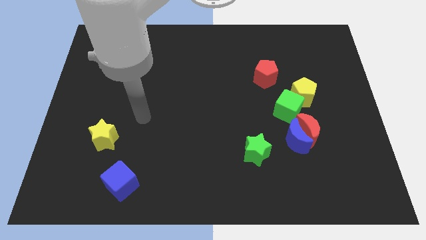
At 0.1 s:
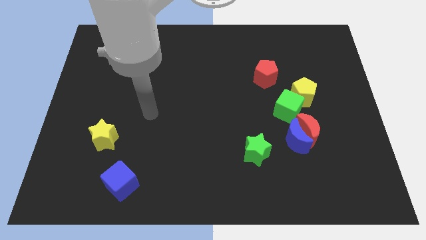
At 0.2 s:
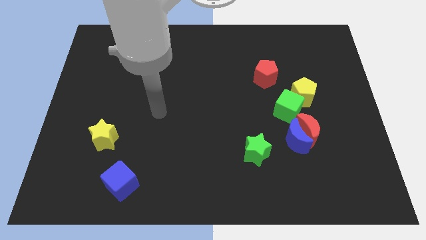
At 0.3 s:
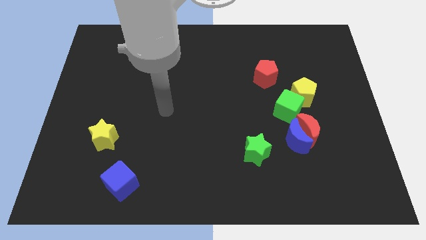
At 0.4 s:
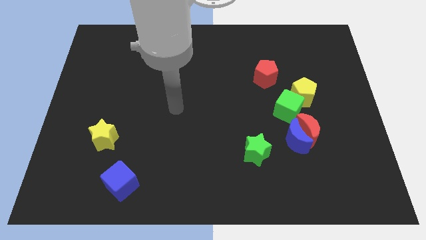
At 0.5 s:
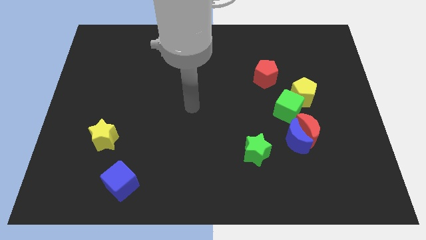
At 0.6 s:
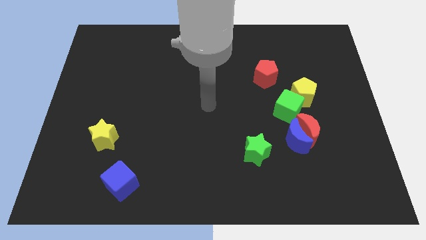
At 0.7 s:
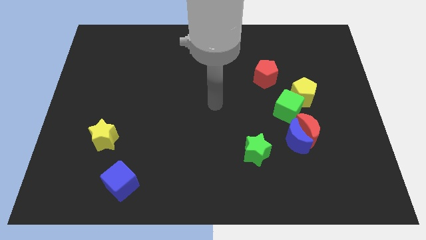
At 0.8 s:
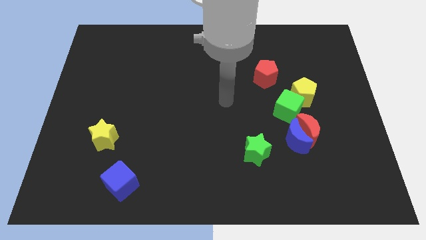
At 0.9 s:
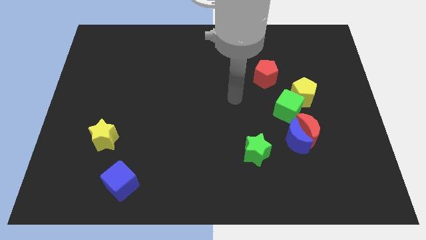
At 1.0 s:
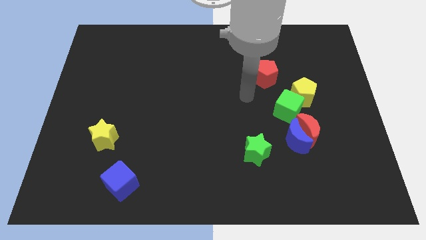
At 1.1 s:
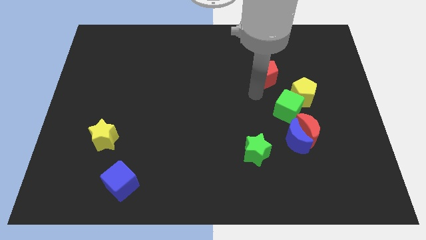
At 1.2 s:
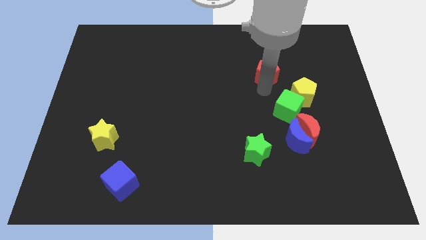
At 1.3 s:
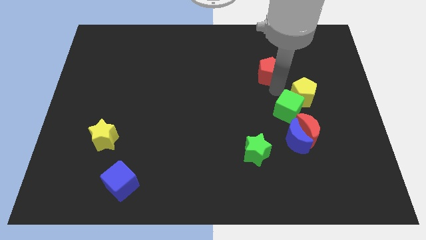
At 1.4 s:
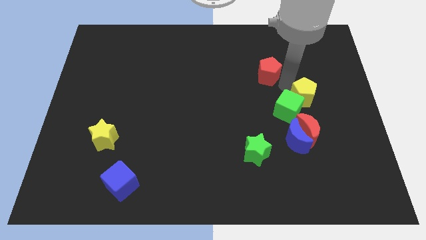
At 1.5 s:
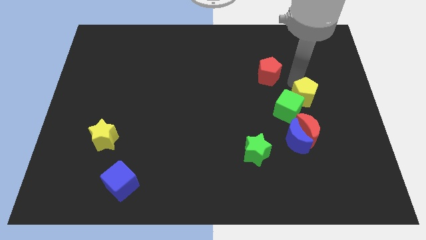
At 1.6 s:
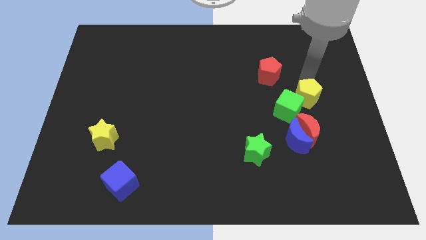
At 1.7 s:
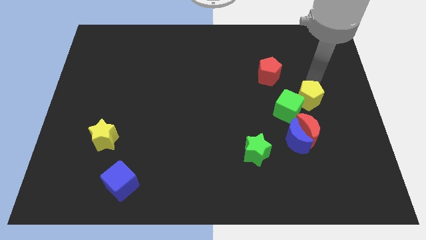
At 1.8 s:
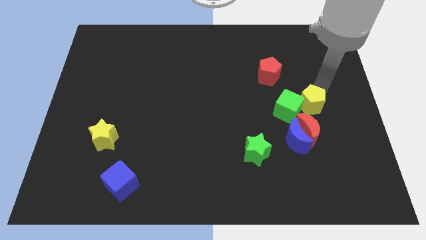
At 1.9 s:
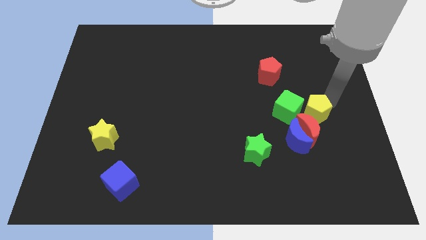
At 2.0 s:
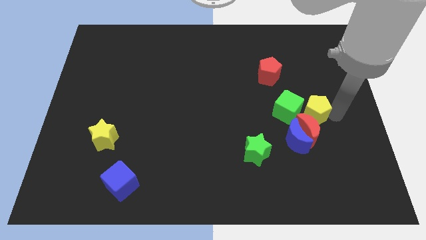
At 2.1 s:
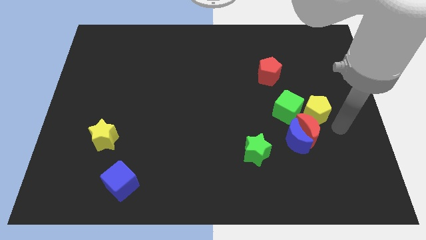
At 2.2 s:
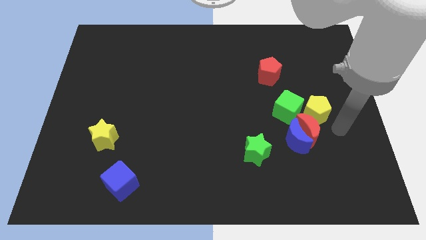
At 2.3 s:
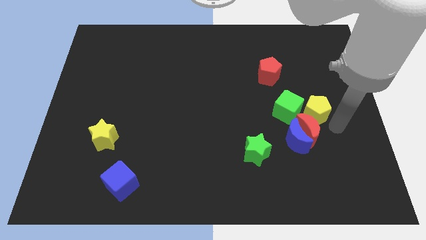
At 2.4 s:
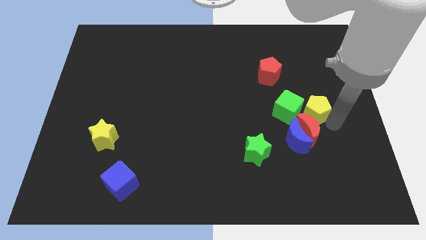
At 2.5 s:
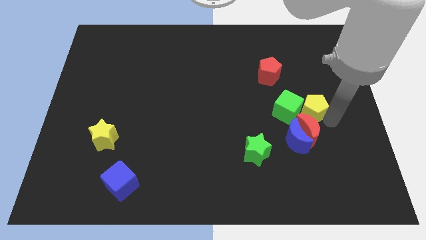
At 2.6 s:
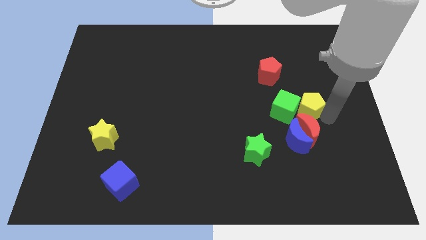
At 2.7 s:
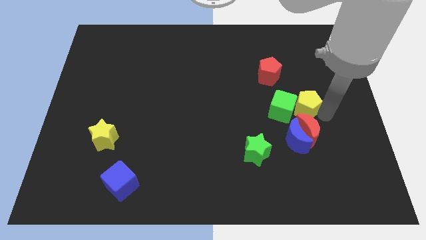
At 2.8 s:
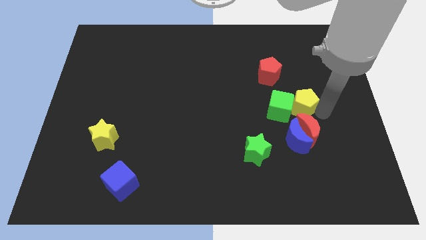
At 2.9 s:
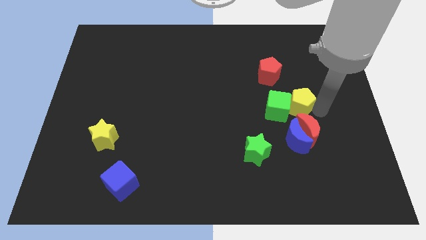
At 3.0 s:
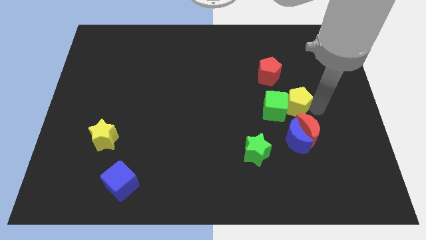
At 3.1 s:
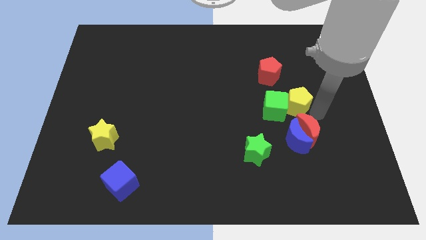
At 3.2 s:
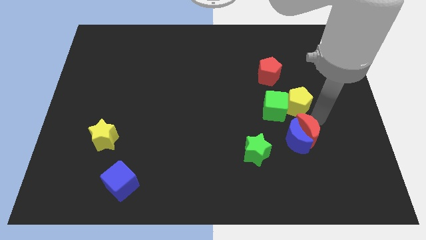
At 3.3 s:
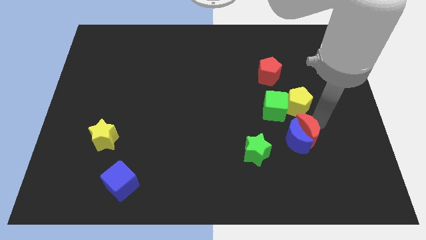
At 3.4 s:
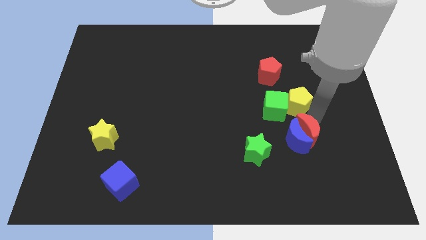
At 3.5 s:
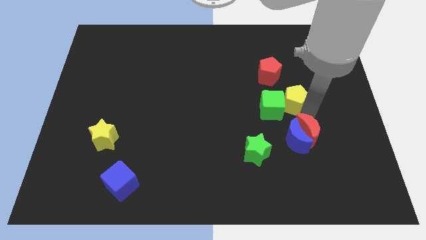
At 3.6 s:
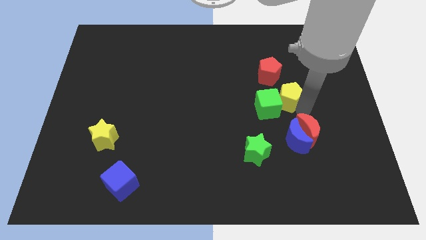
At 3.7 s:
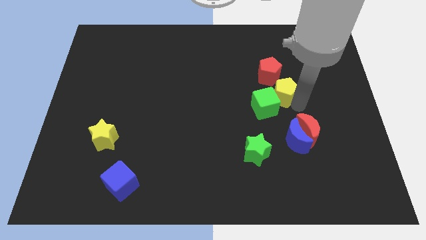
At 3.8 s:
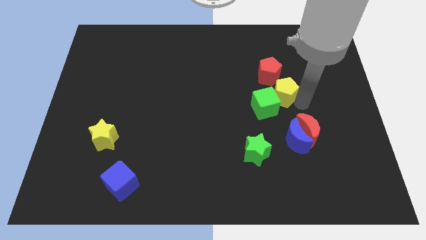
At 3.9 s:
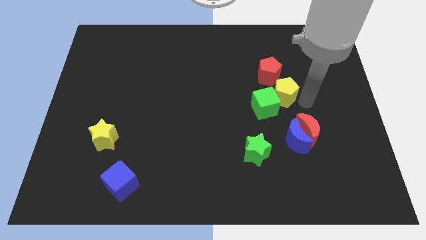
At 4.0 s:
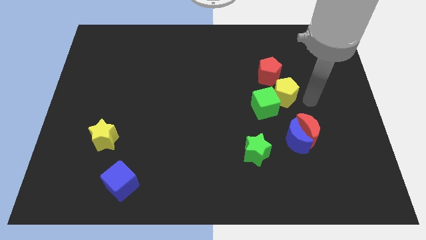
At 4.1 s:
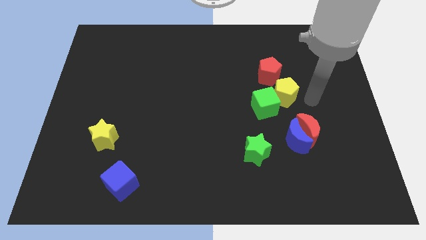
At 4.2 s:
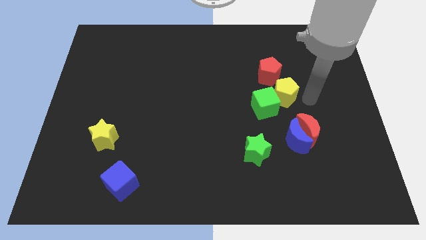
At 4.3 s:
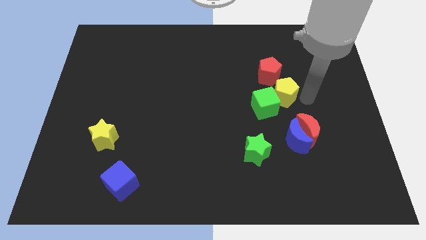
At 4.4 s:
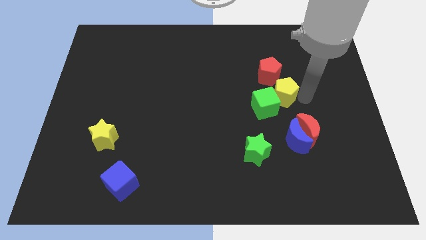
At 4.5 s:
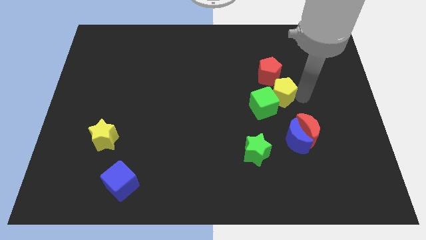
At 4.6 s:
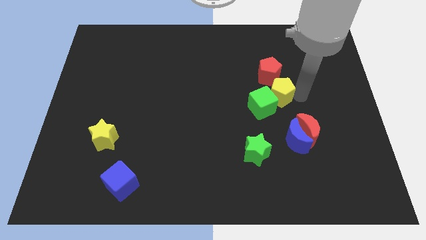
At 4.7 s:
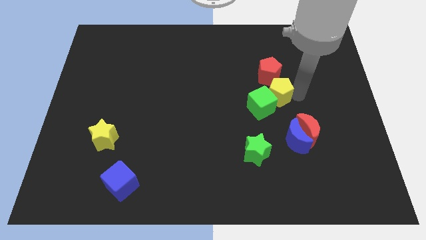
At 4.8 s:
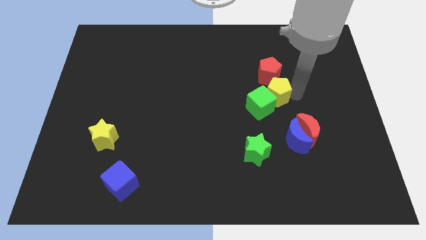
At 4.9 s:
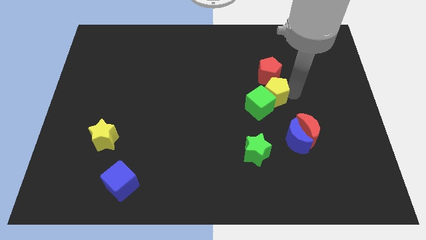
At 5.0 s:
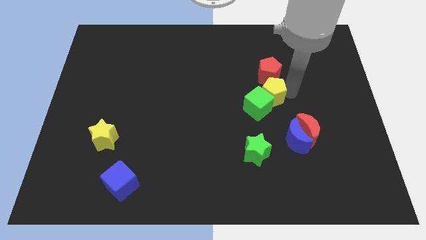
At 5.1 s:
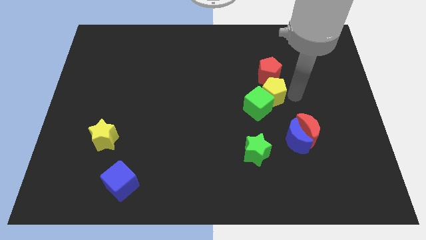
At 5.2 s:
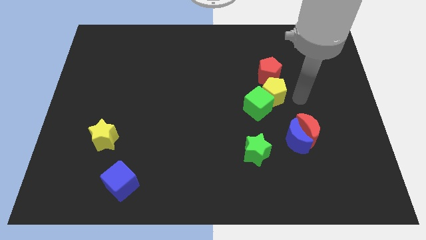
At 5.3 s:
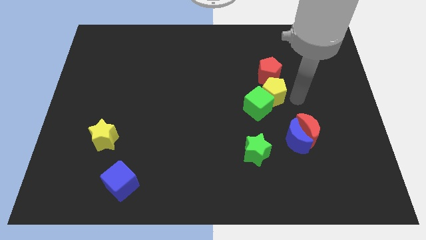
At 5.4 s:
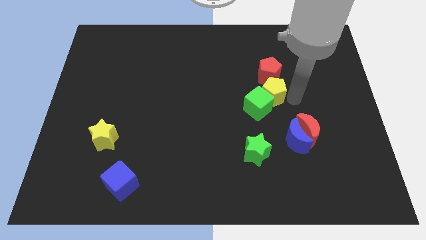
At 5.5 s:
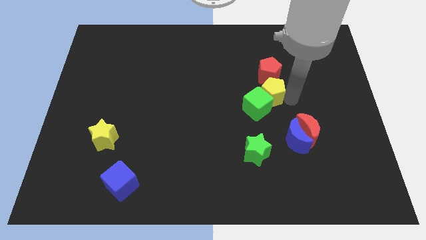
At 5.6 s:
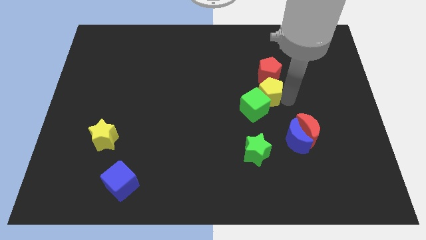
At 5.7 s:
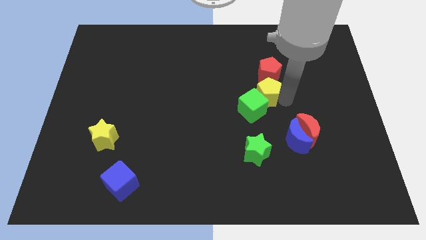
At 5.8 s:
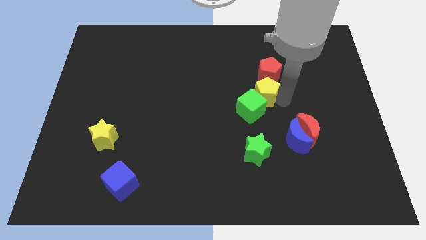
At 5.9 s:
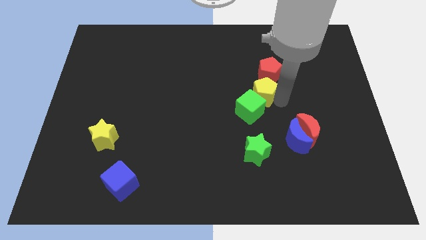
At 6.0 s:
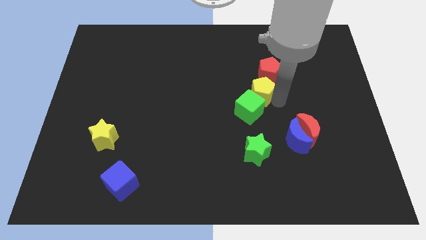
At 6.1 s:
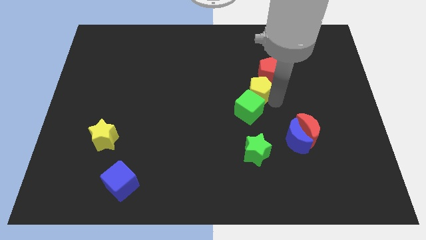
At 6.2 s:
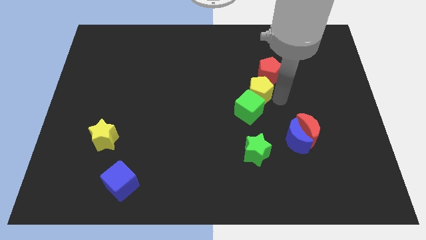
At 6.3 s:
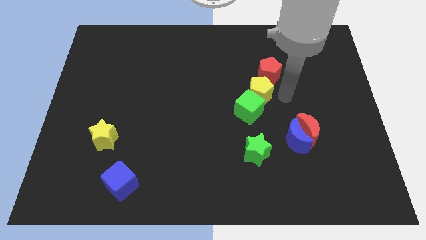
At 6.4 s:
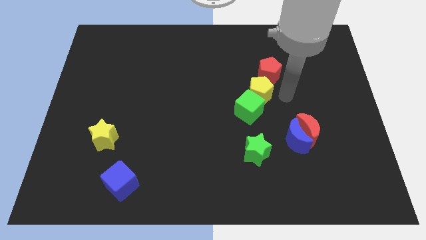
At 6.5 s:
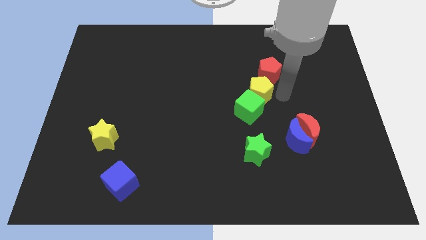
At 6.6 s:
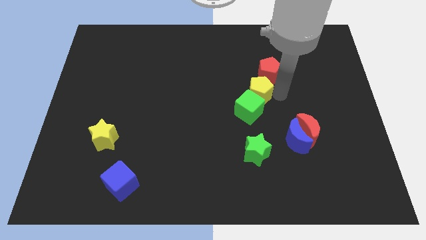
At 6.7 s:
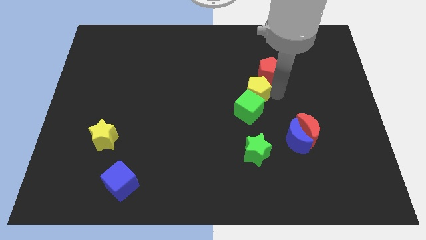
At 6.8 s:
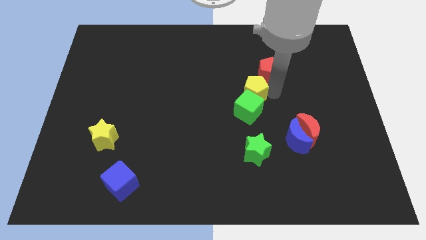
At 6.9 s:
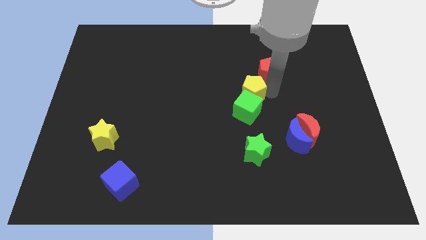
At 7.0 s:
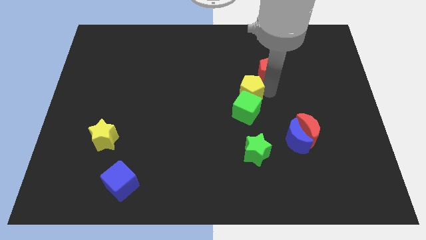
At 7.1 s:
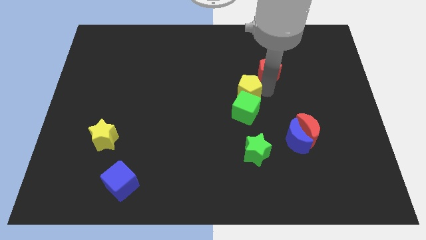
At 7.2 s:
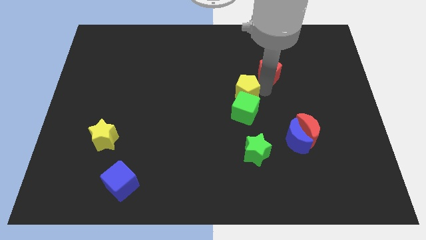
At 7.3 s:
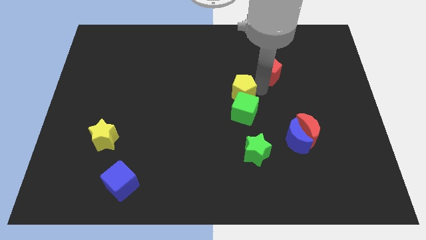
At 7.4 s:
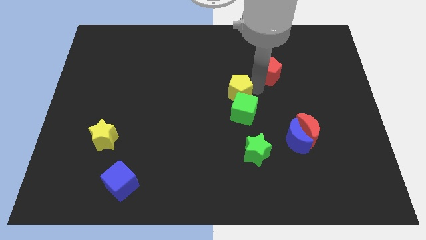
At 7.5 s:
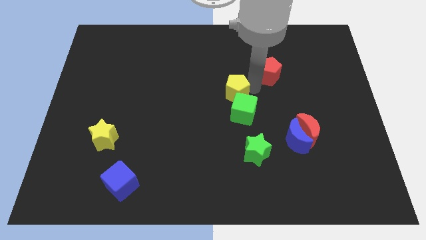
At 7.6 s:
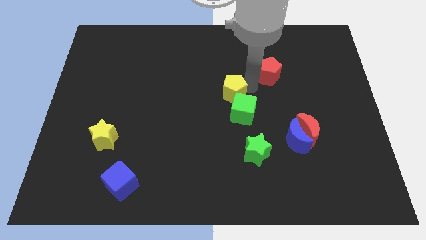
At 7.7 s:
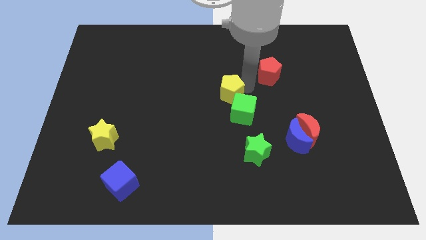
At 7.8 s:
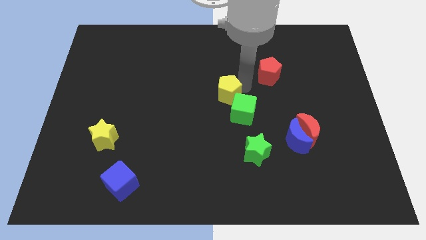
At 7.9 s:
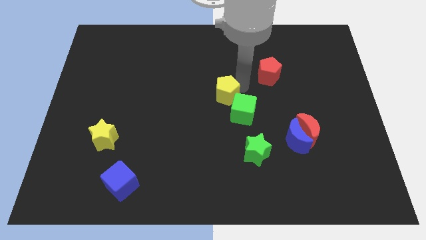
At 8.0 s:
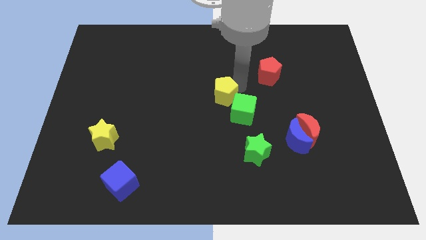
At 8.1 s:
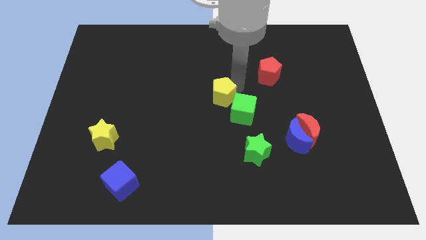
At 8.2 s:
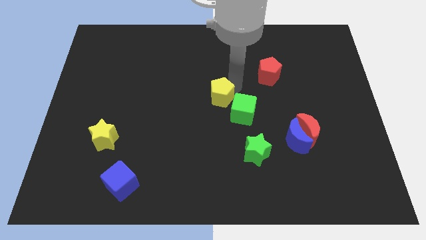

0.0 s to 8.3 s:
move the yellow pentagon to the left
